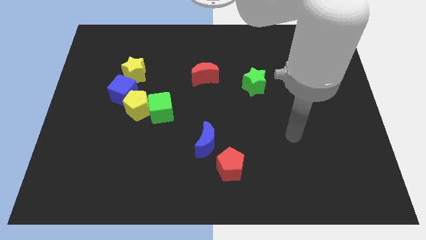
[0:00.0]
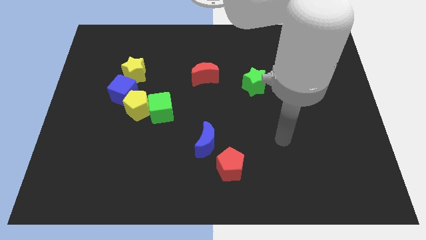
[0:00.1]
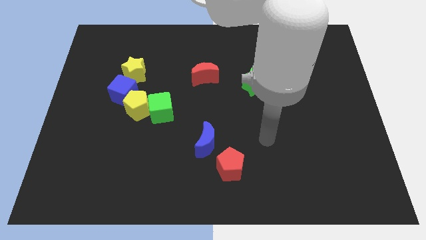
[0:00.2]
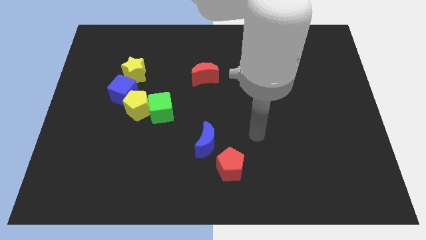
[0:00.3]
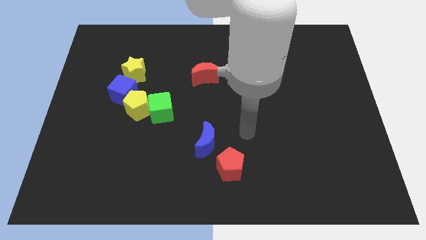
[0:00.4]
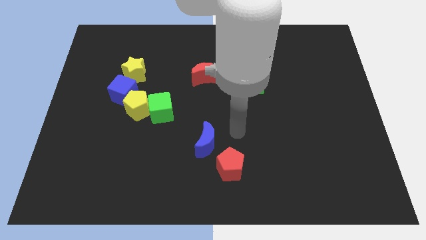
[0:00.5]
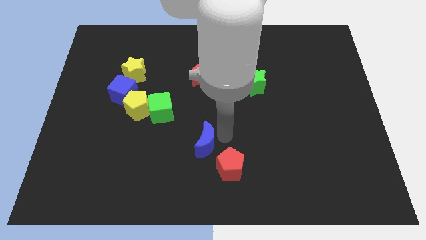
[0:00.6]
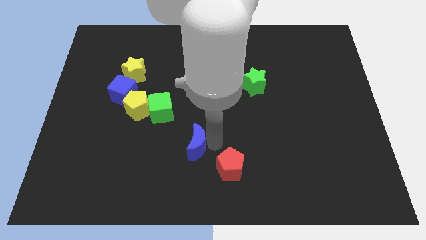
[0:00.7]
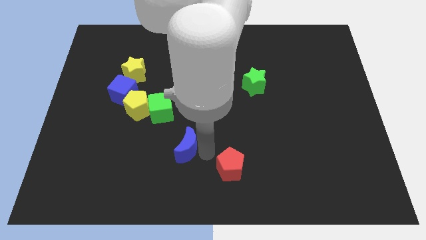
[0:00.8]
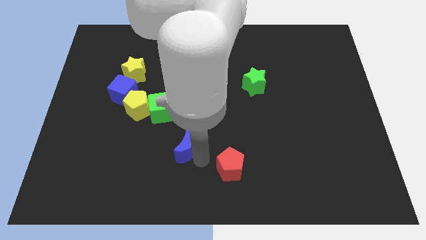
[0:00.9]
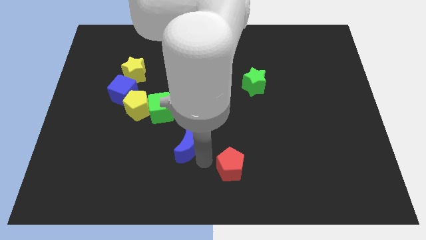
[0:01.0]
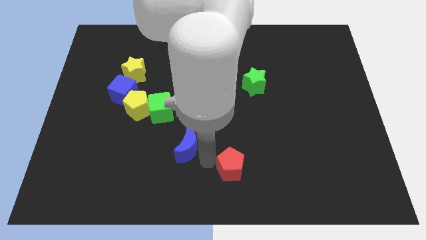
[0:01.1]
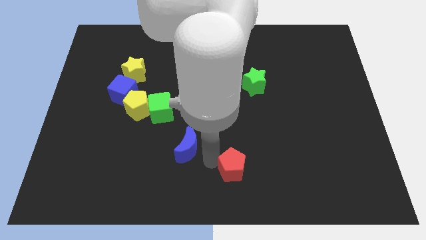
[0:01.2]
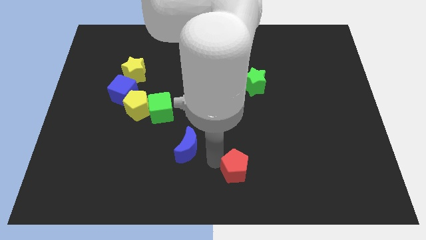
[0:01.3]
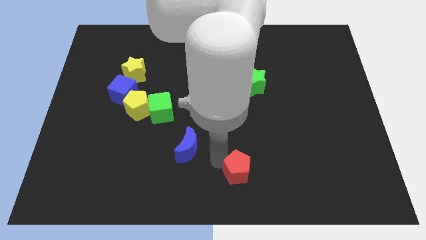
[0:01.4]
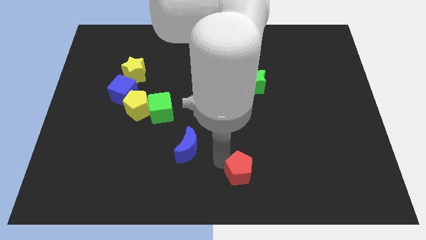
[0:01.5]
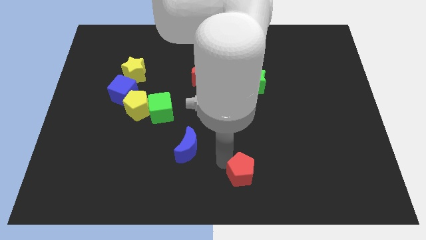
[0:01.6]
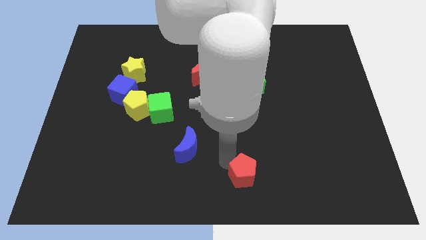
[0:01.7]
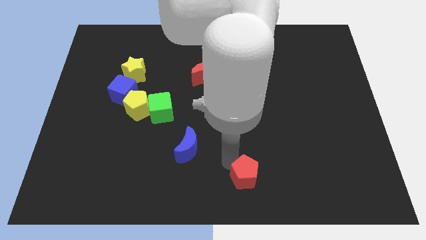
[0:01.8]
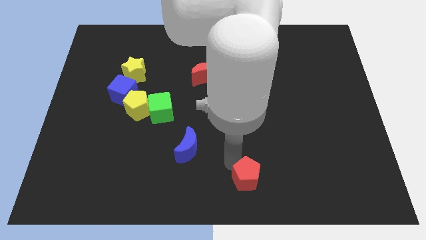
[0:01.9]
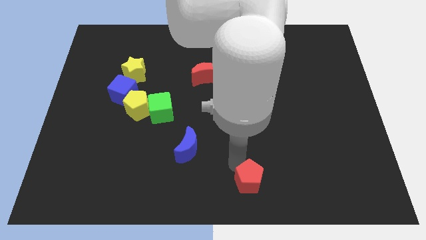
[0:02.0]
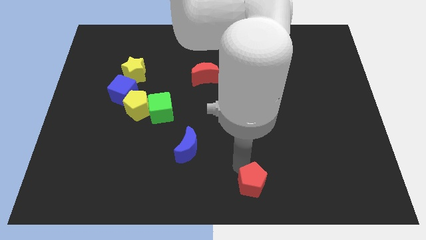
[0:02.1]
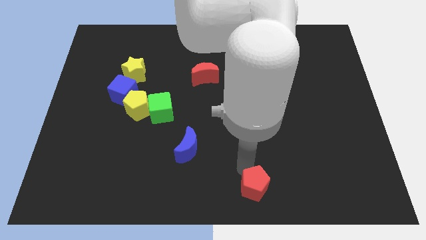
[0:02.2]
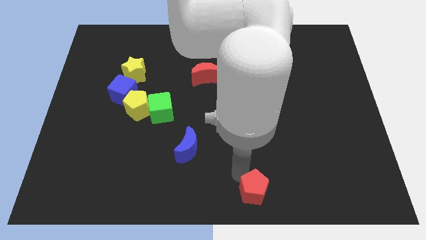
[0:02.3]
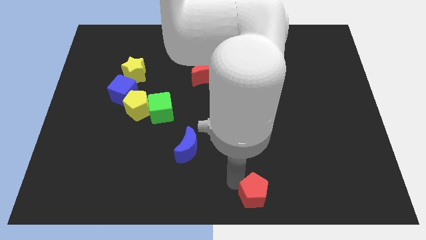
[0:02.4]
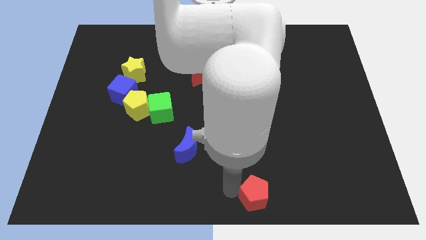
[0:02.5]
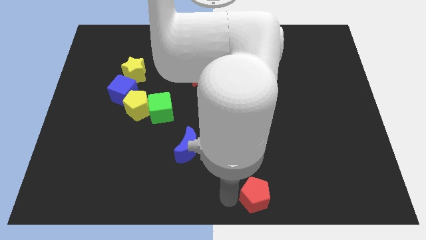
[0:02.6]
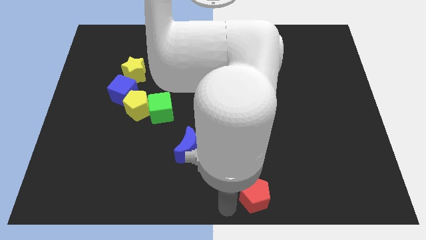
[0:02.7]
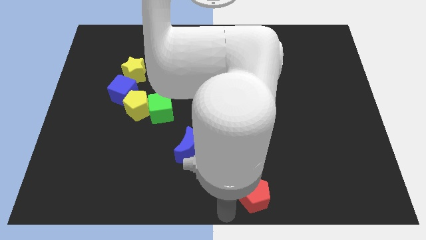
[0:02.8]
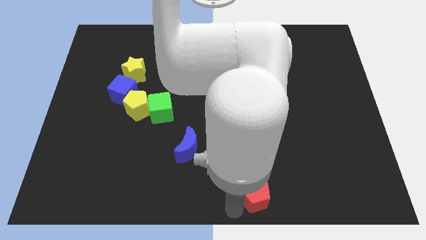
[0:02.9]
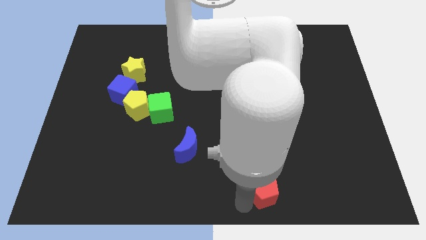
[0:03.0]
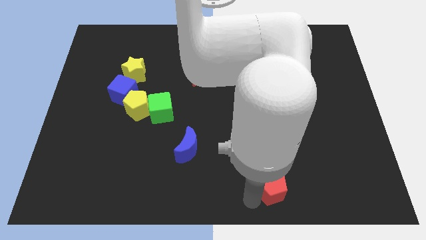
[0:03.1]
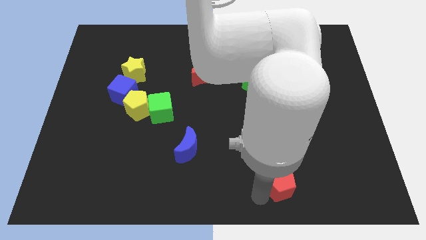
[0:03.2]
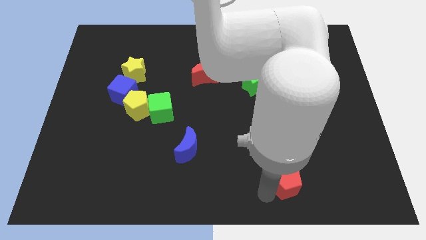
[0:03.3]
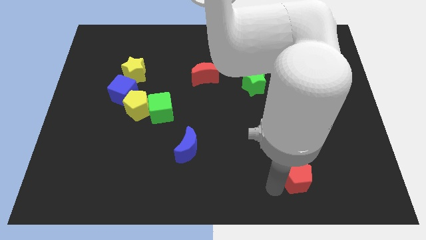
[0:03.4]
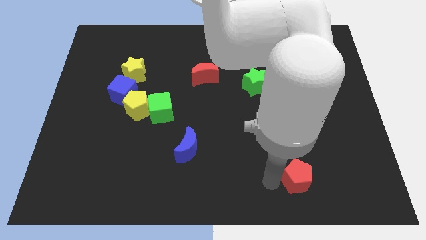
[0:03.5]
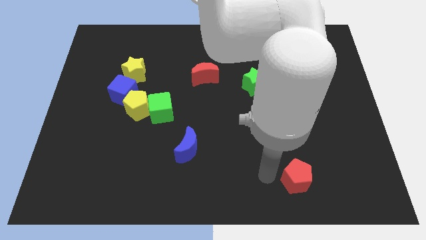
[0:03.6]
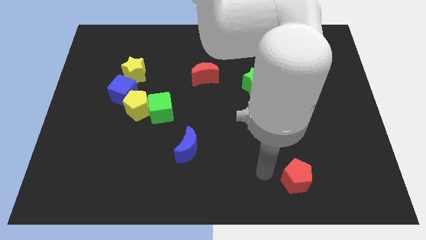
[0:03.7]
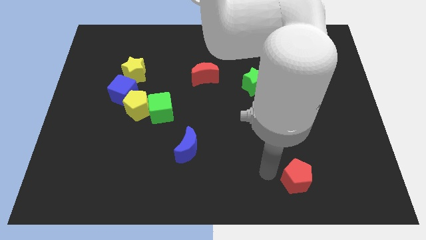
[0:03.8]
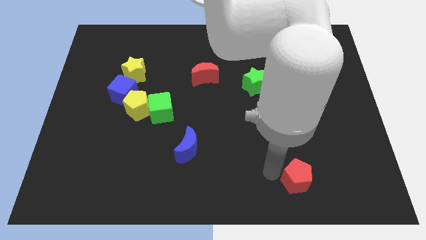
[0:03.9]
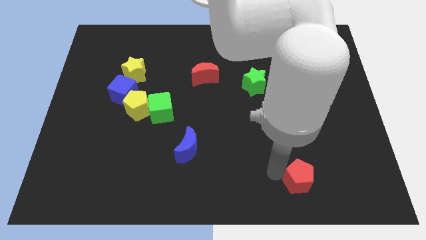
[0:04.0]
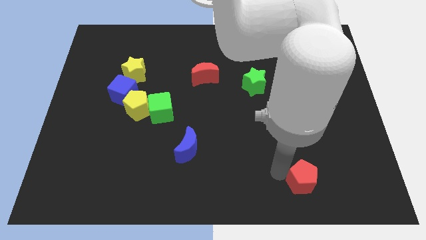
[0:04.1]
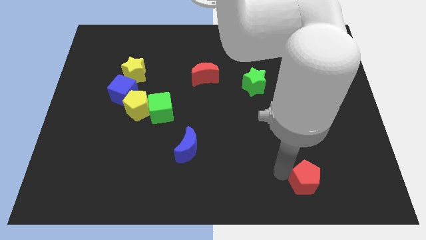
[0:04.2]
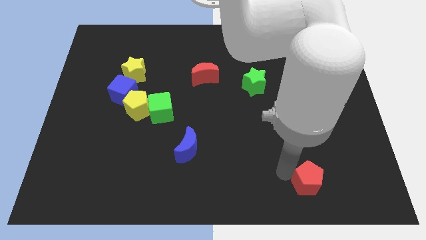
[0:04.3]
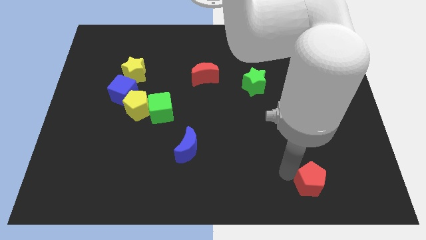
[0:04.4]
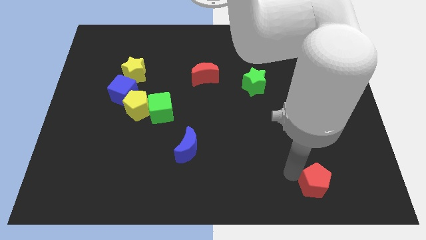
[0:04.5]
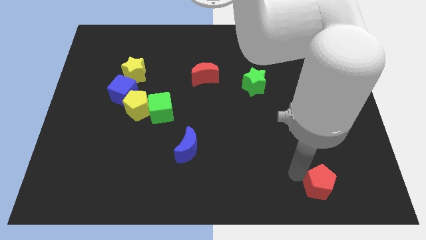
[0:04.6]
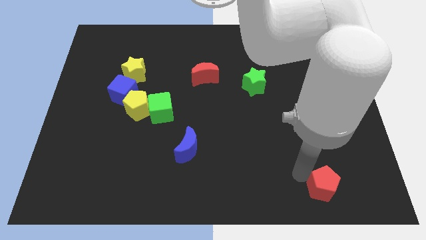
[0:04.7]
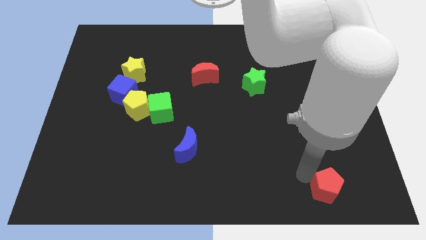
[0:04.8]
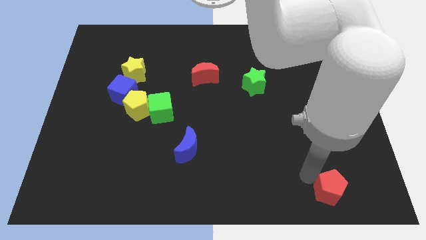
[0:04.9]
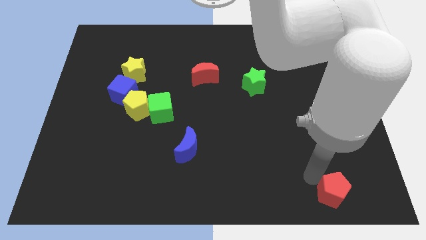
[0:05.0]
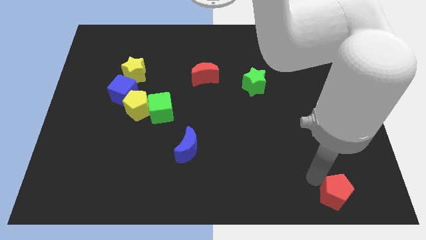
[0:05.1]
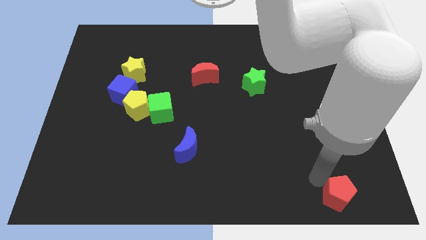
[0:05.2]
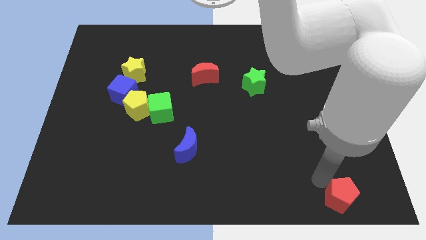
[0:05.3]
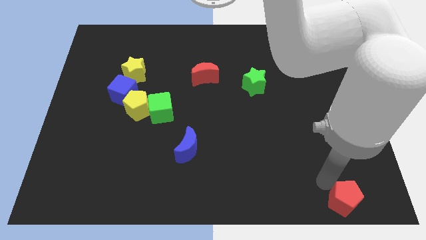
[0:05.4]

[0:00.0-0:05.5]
move the red pentagon to the bottom right of the board

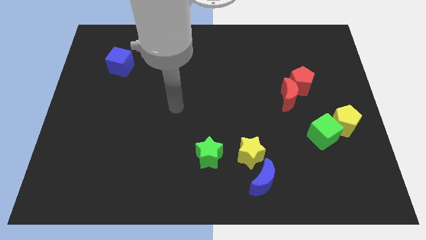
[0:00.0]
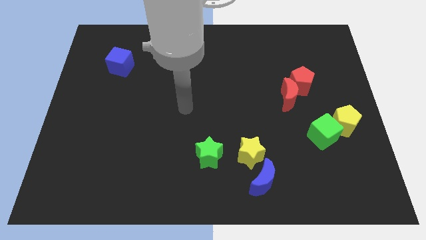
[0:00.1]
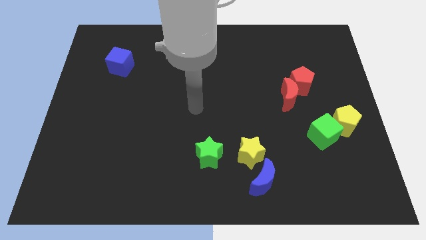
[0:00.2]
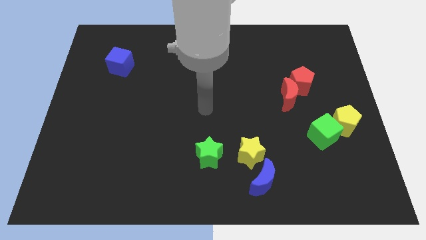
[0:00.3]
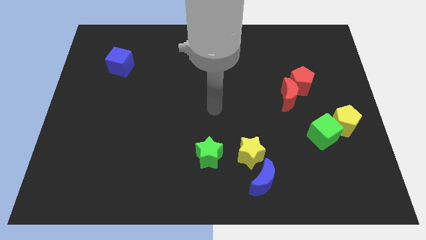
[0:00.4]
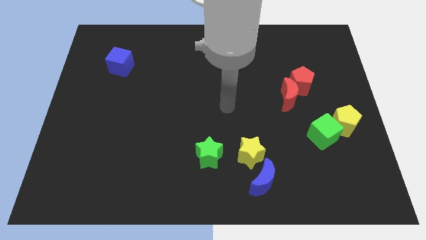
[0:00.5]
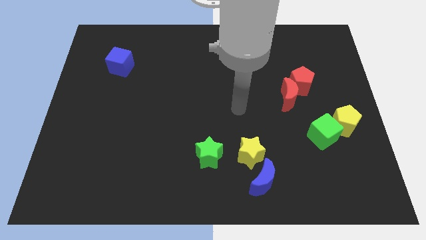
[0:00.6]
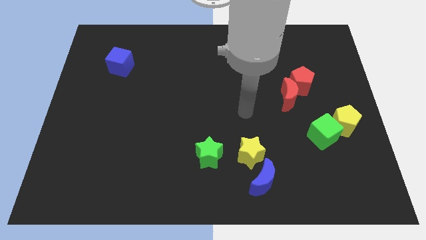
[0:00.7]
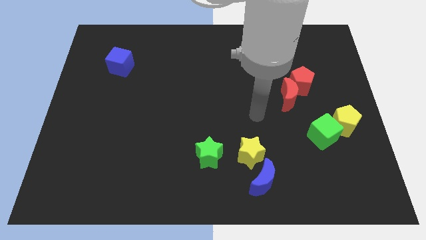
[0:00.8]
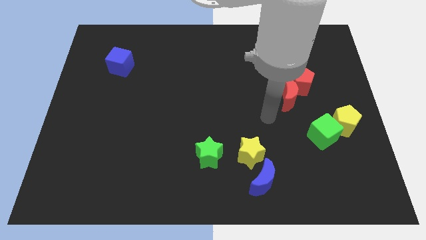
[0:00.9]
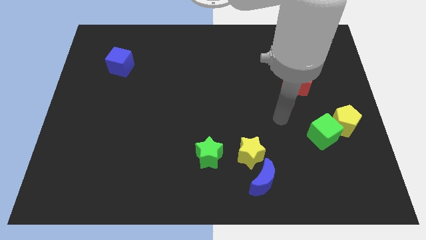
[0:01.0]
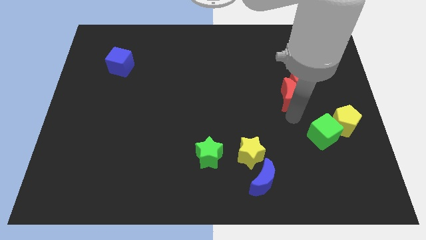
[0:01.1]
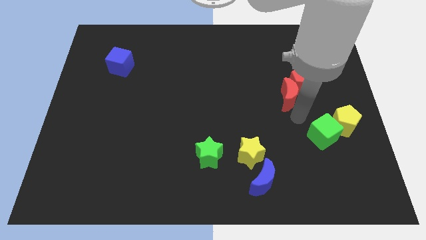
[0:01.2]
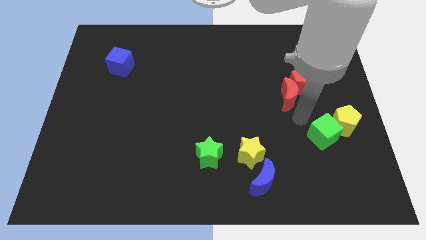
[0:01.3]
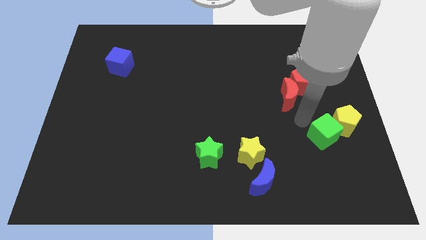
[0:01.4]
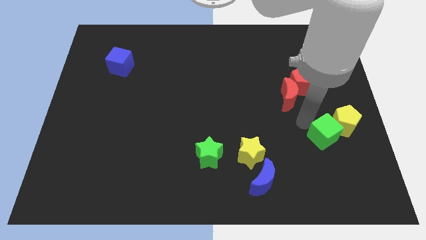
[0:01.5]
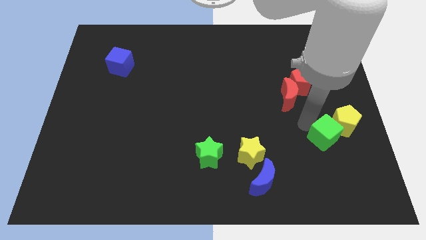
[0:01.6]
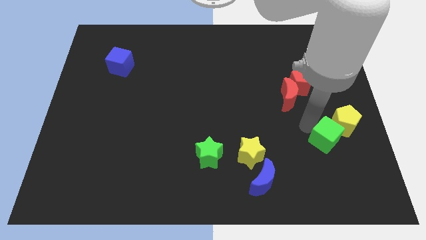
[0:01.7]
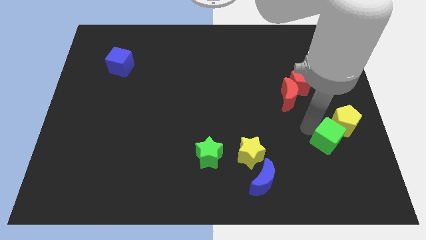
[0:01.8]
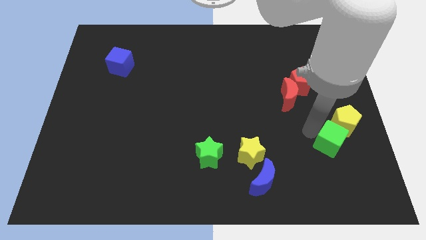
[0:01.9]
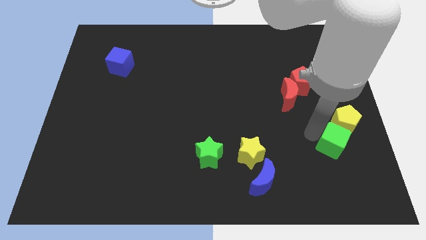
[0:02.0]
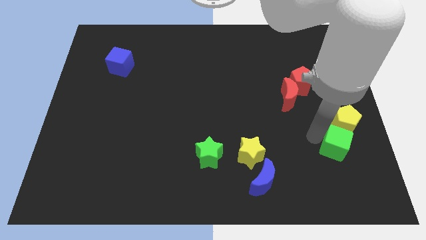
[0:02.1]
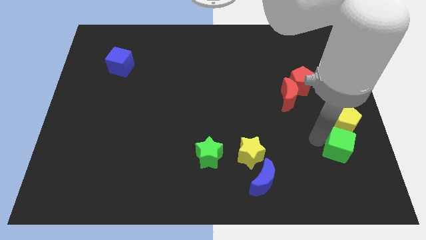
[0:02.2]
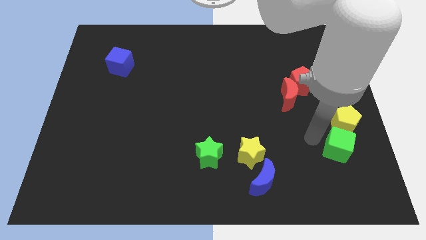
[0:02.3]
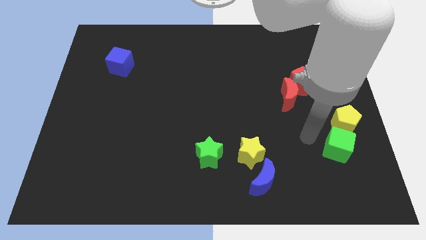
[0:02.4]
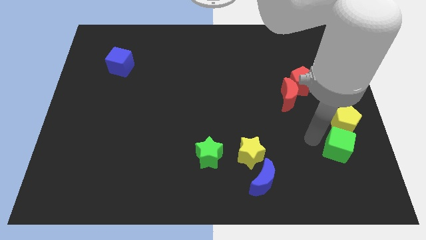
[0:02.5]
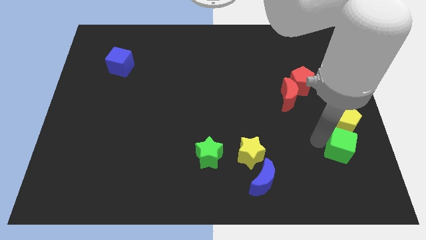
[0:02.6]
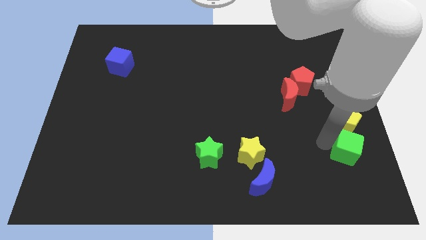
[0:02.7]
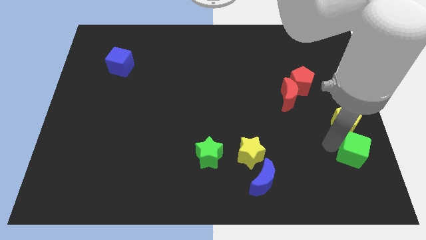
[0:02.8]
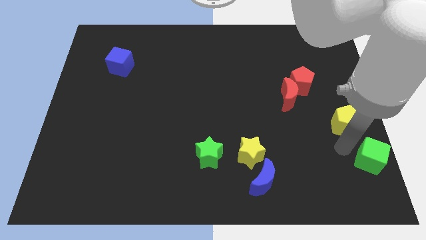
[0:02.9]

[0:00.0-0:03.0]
push the green cube to the lower right corner
